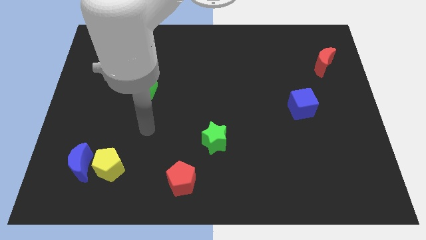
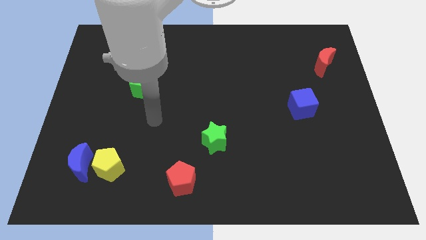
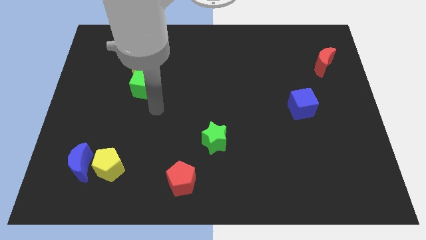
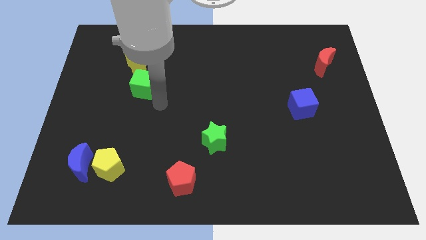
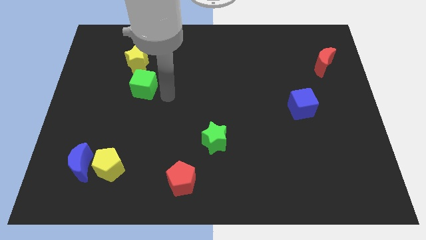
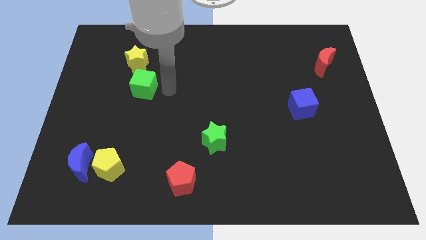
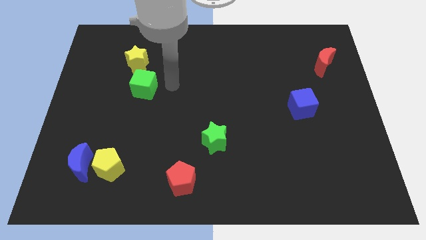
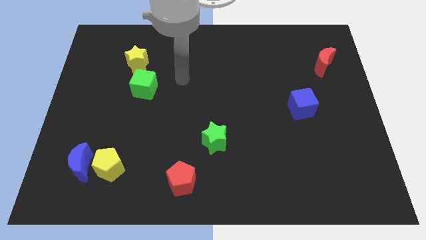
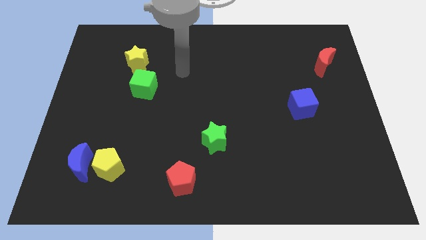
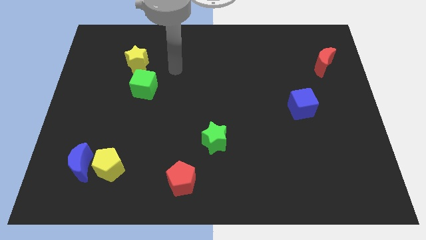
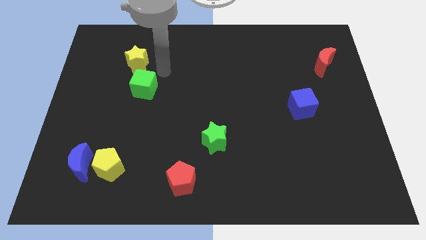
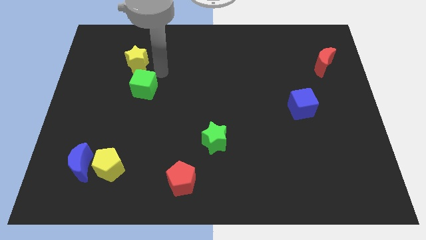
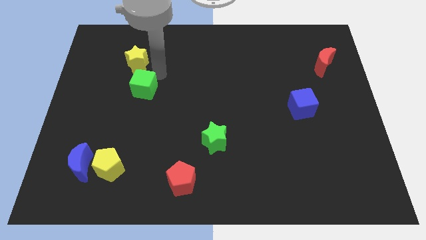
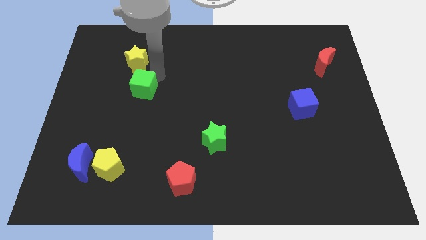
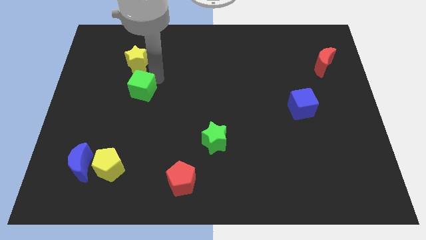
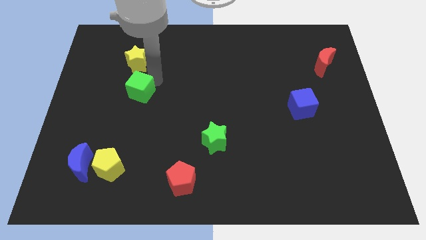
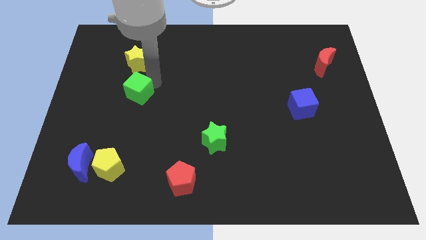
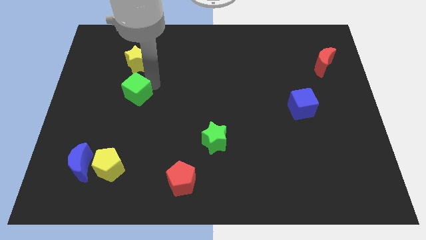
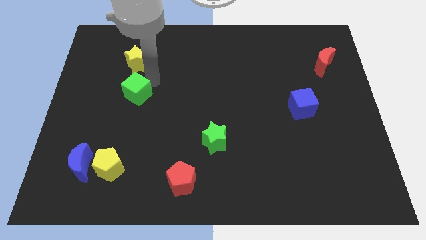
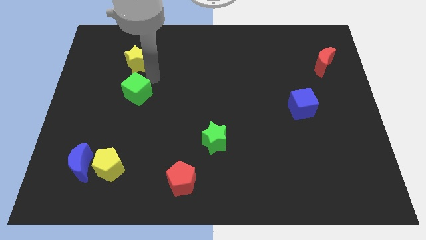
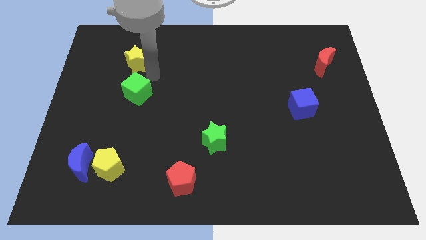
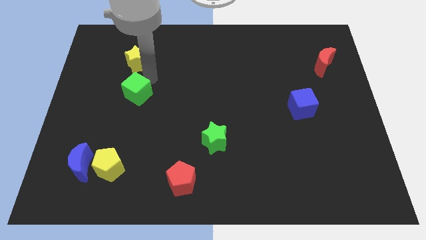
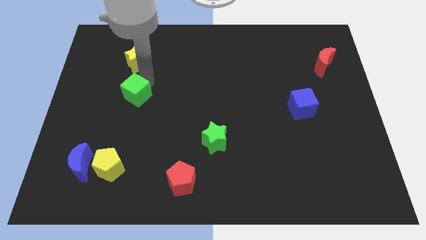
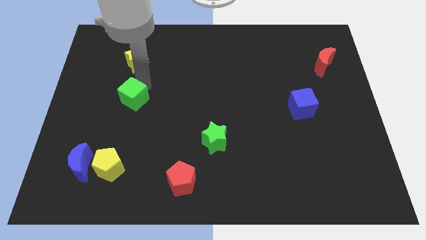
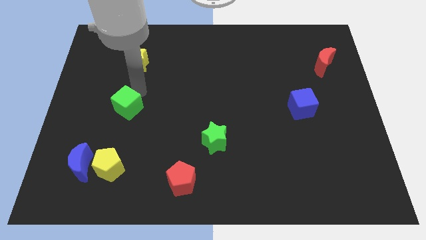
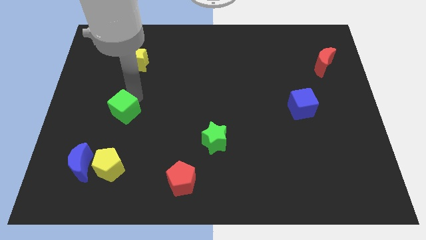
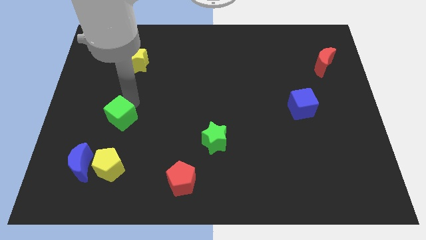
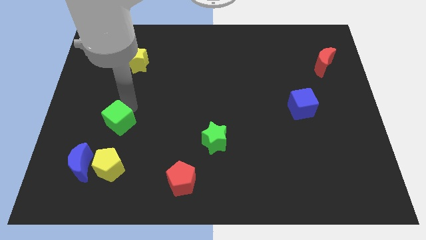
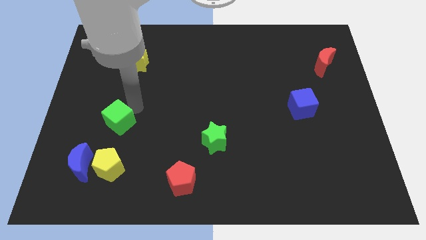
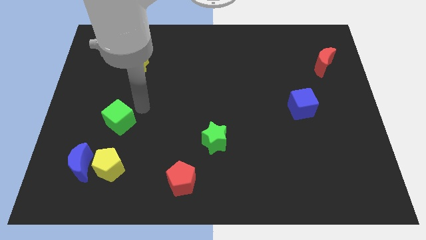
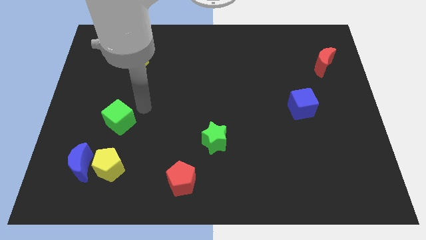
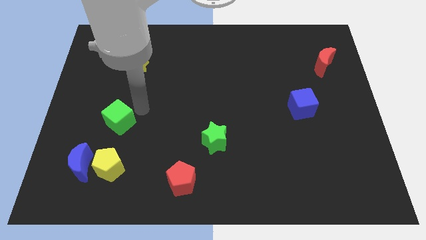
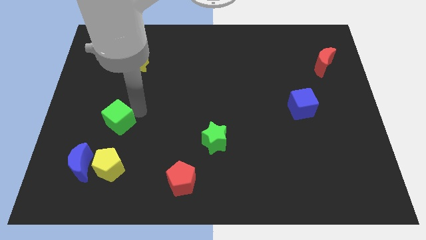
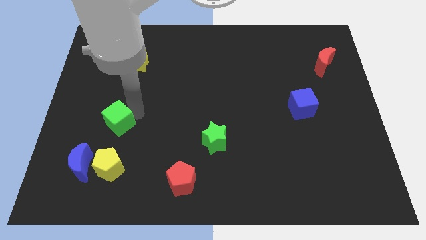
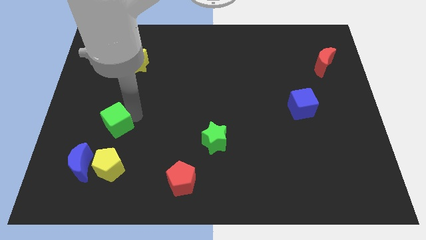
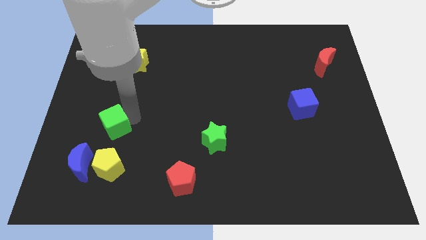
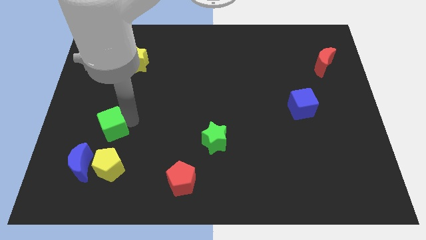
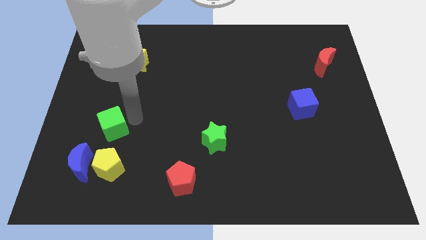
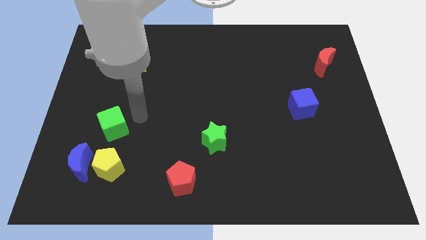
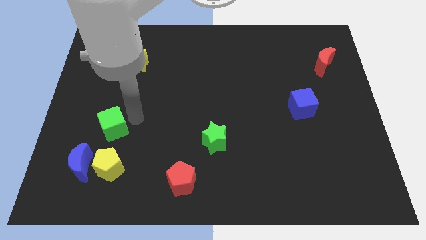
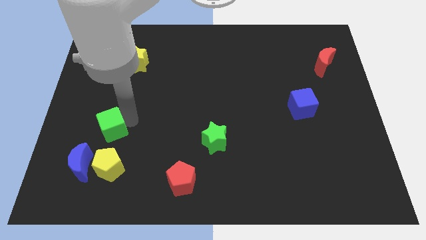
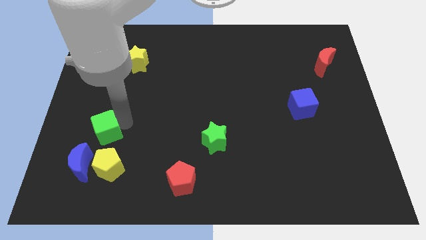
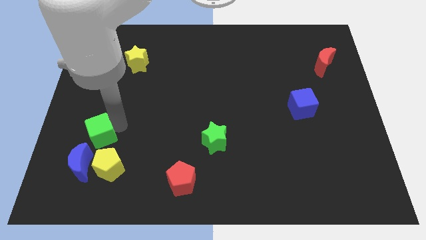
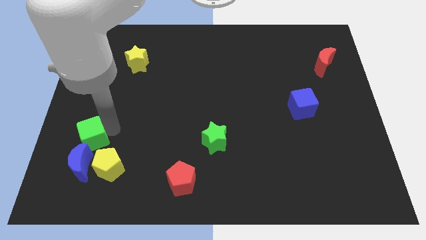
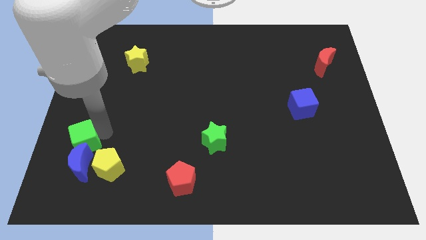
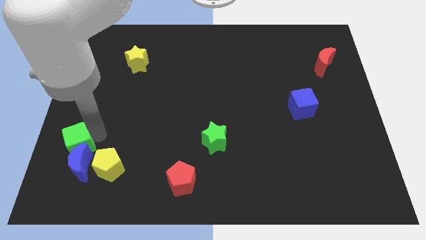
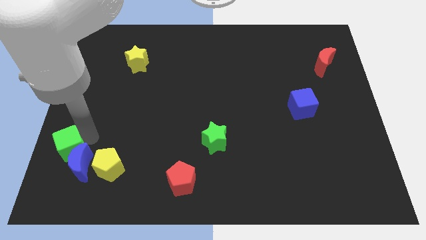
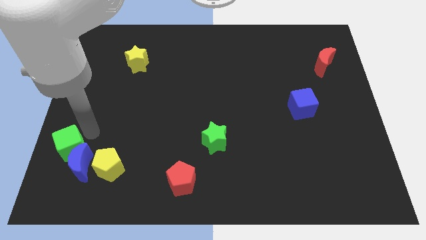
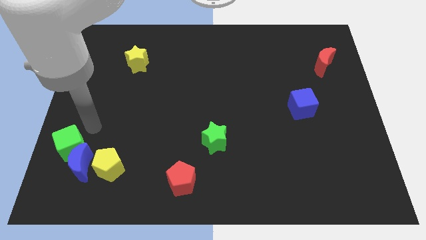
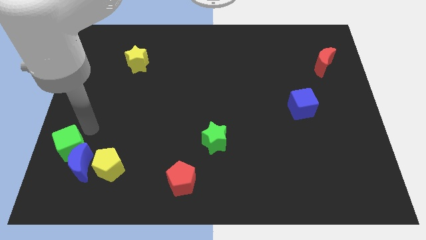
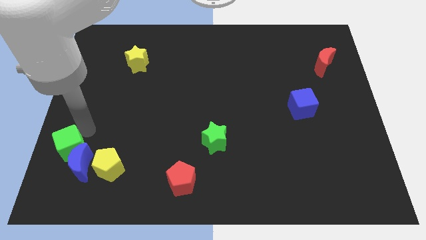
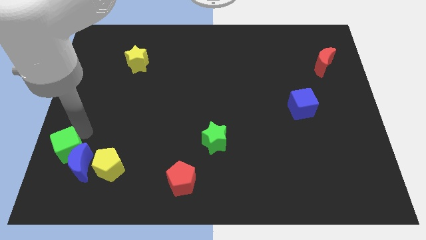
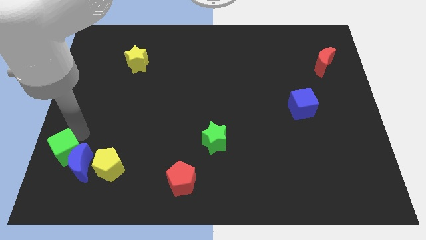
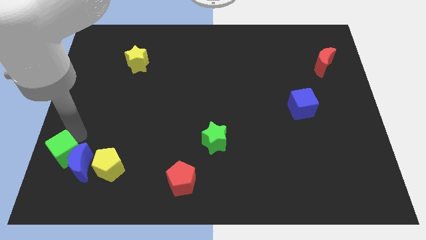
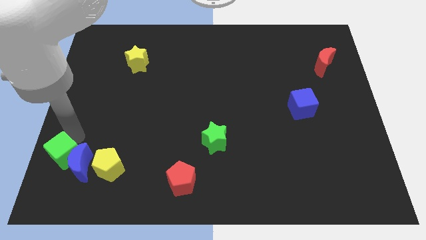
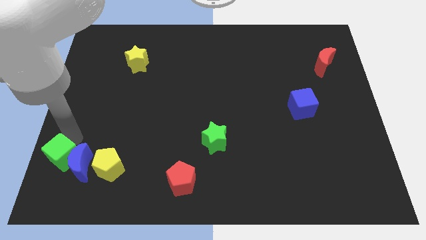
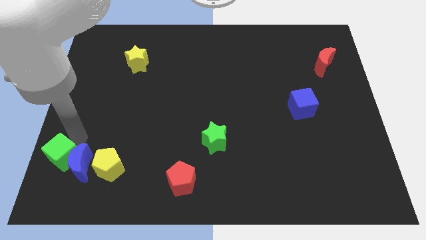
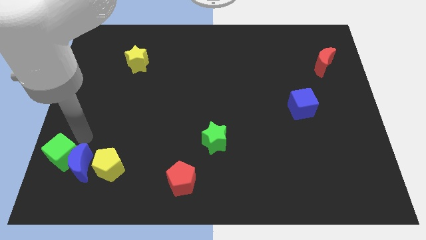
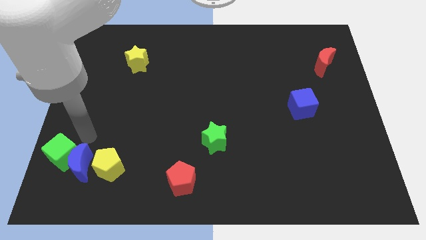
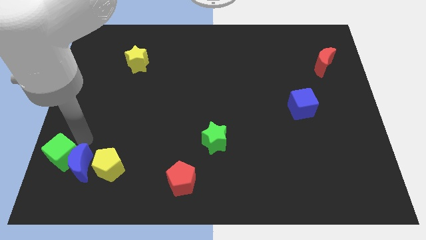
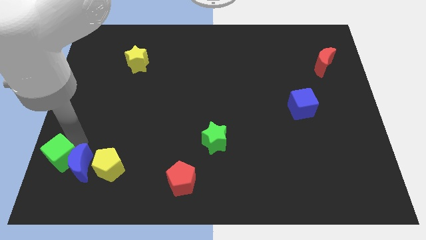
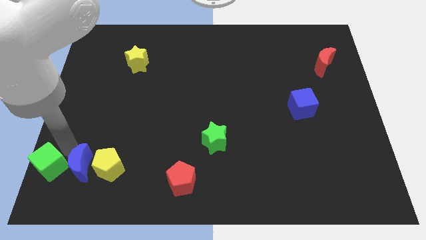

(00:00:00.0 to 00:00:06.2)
put the green cube to the bottom left
